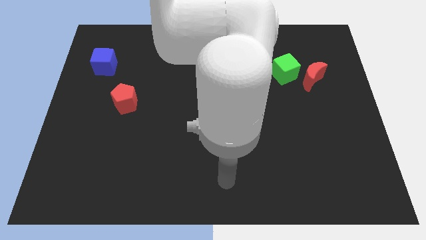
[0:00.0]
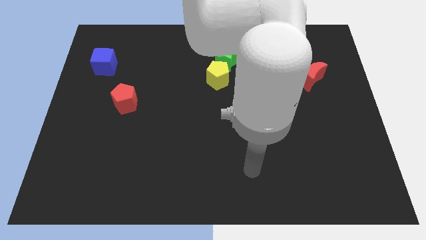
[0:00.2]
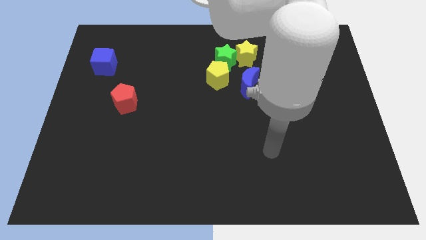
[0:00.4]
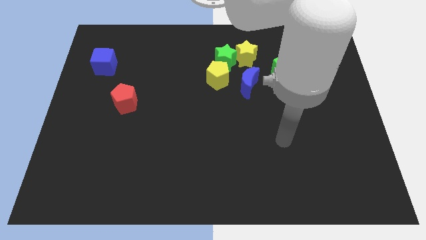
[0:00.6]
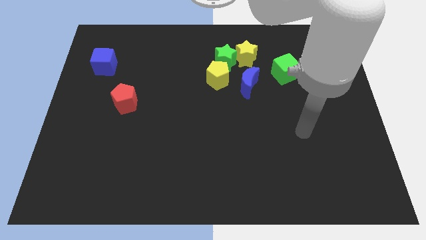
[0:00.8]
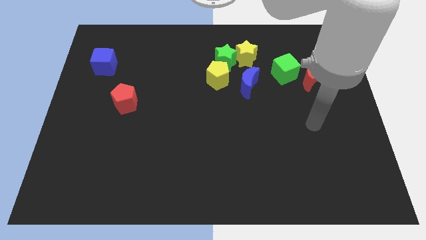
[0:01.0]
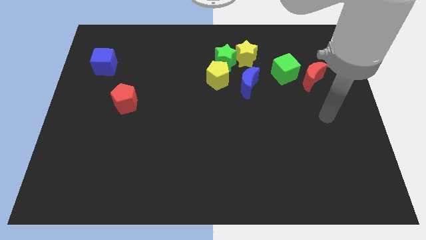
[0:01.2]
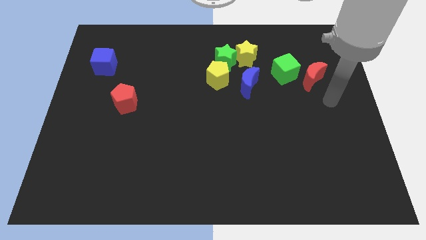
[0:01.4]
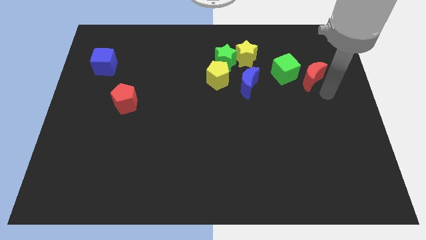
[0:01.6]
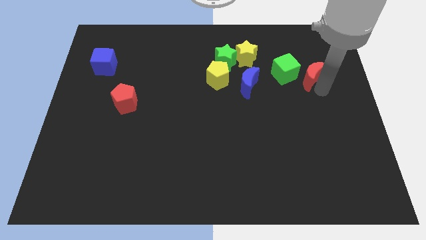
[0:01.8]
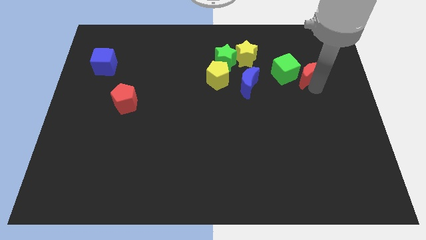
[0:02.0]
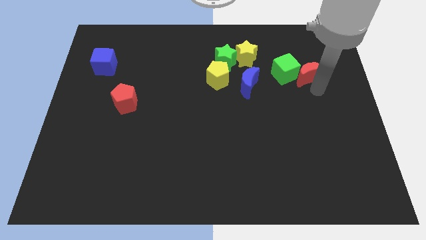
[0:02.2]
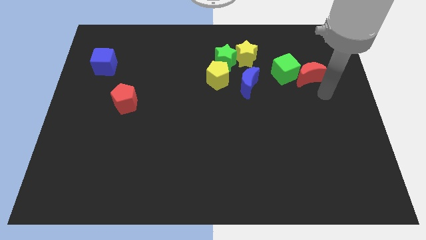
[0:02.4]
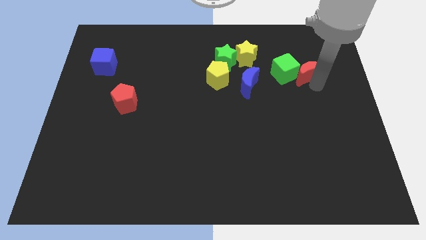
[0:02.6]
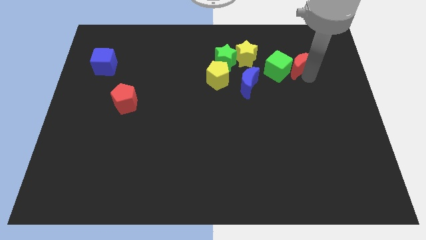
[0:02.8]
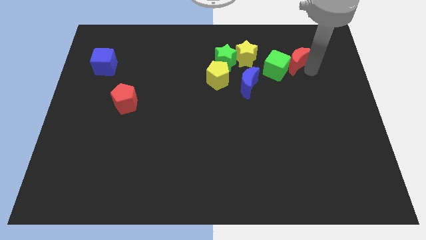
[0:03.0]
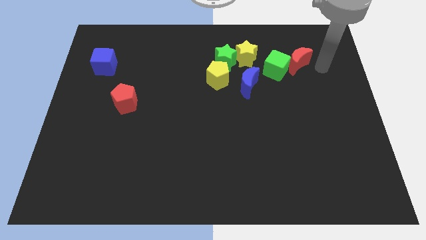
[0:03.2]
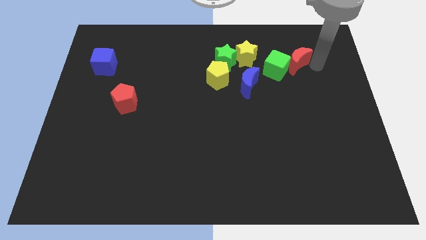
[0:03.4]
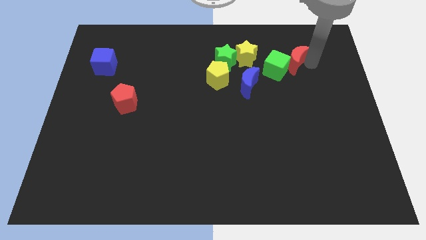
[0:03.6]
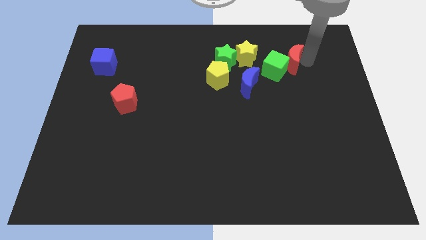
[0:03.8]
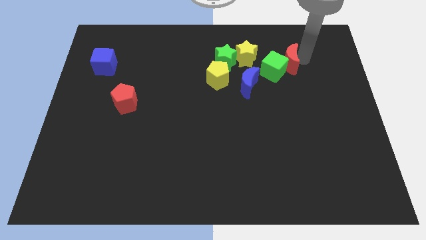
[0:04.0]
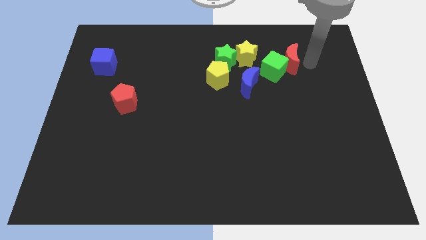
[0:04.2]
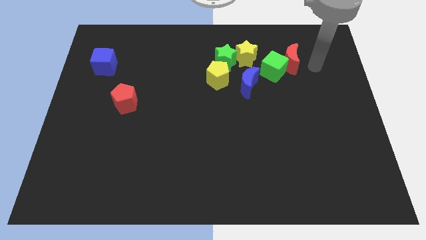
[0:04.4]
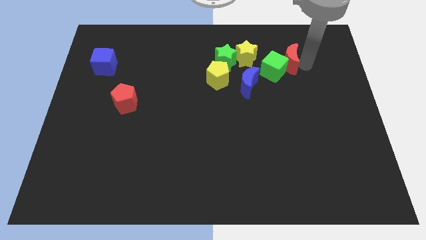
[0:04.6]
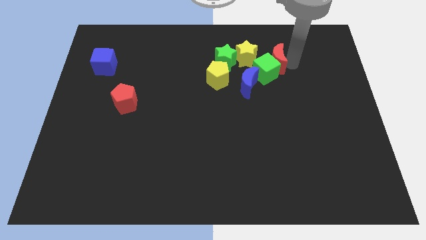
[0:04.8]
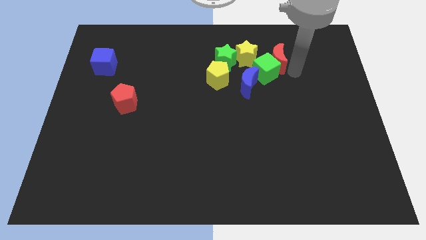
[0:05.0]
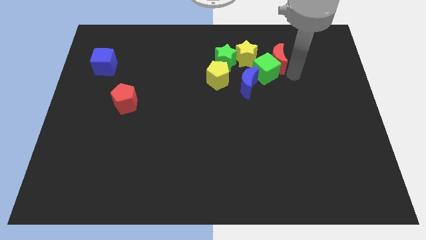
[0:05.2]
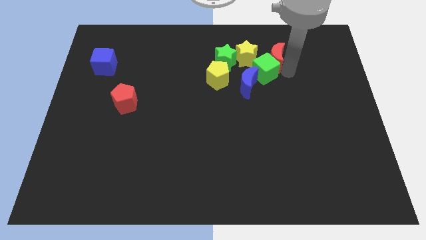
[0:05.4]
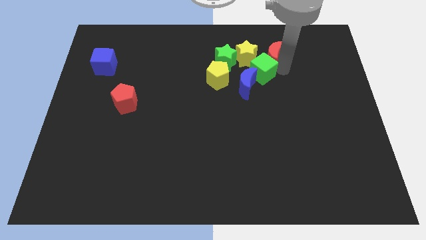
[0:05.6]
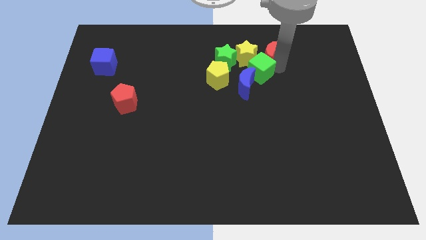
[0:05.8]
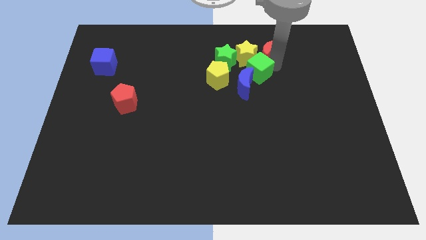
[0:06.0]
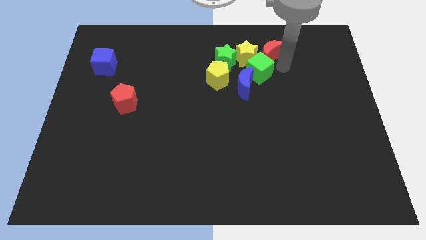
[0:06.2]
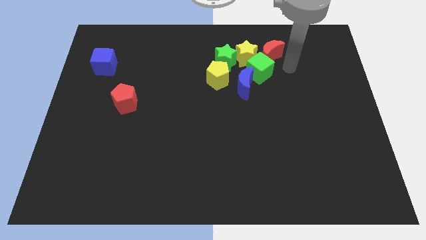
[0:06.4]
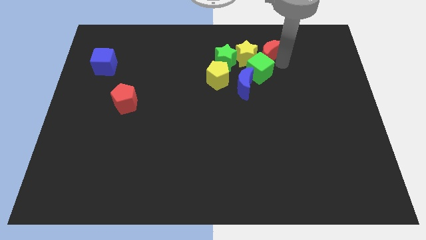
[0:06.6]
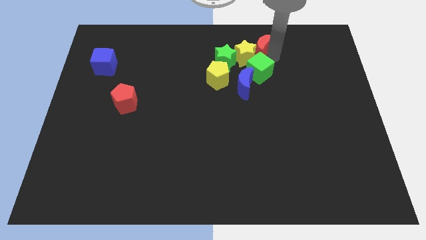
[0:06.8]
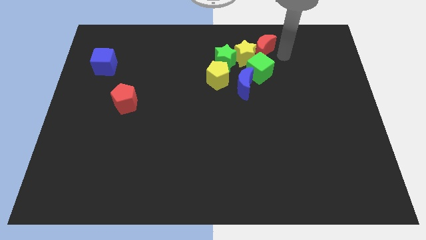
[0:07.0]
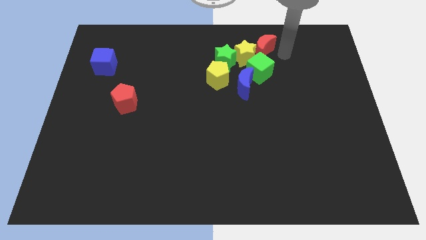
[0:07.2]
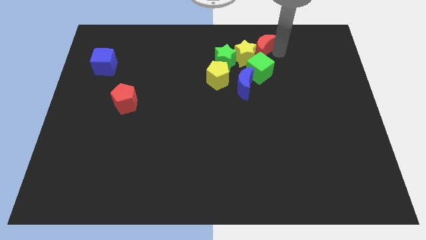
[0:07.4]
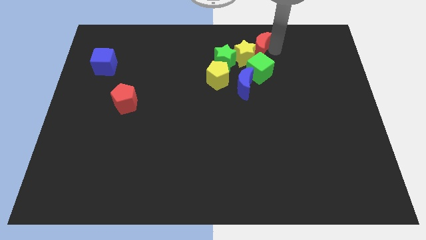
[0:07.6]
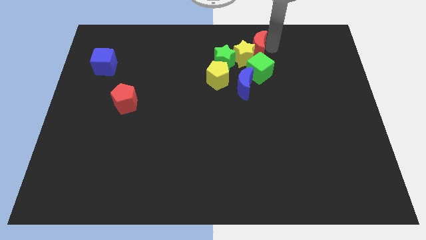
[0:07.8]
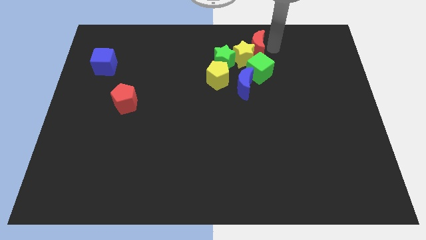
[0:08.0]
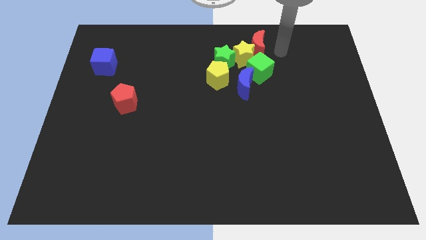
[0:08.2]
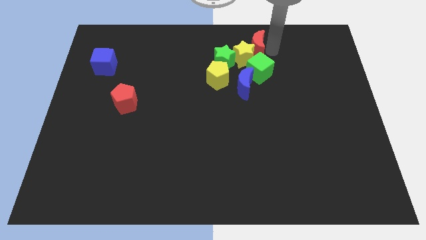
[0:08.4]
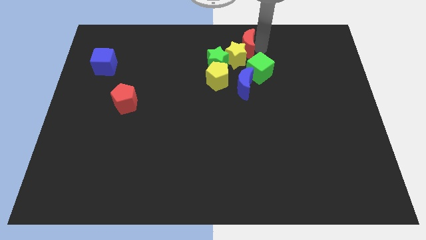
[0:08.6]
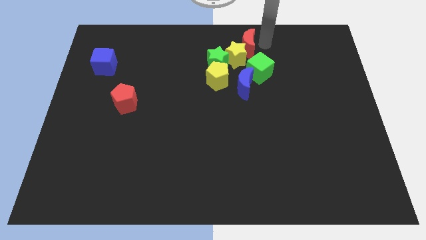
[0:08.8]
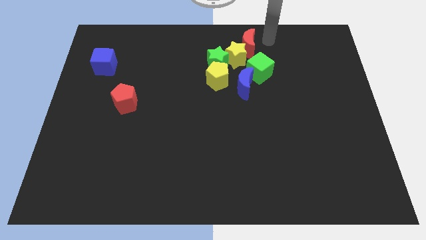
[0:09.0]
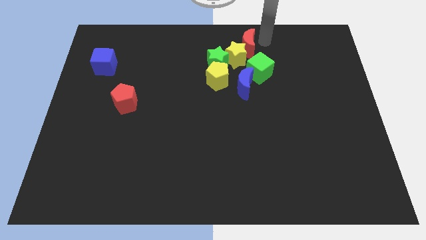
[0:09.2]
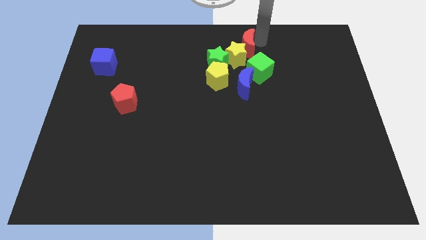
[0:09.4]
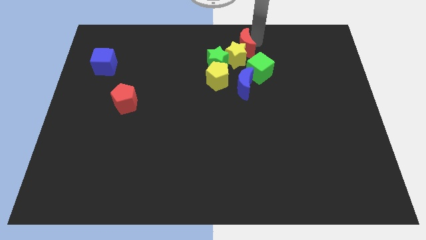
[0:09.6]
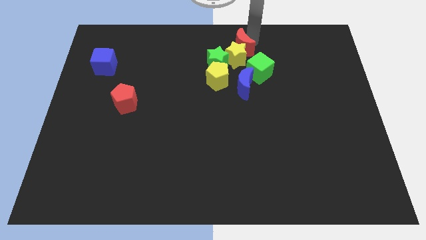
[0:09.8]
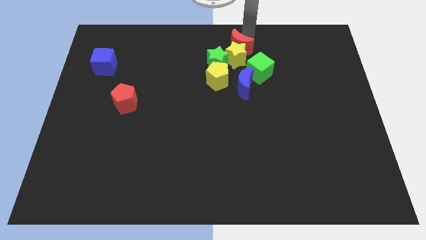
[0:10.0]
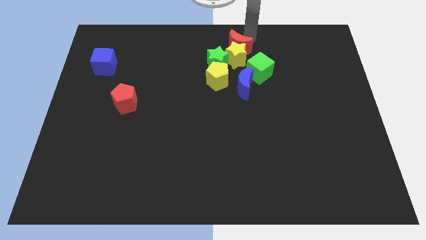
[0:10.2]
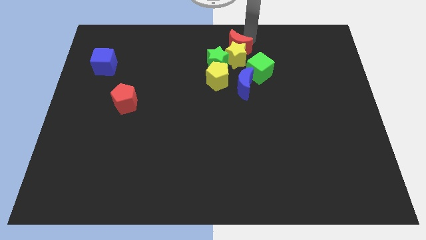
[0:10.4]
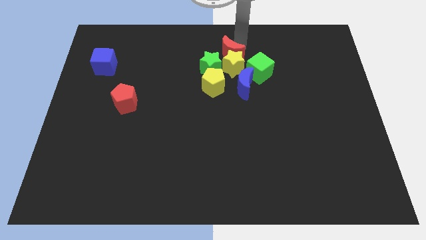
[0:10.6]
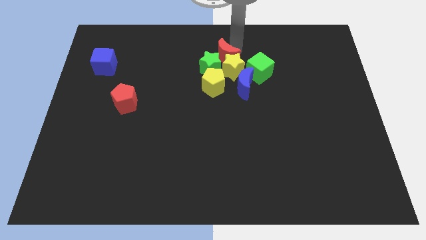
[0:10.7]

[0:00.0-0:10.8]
push the red moon close to the green star

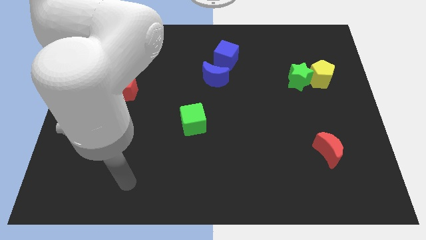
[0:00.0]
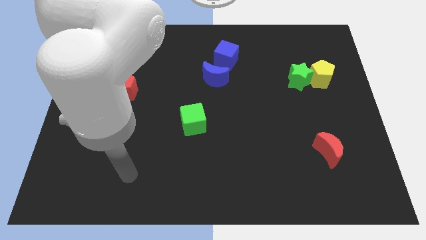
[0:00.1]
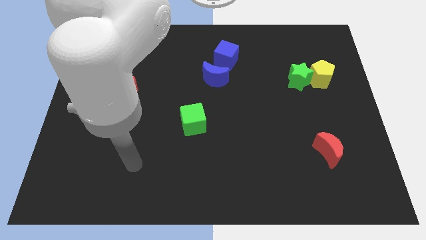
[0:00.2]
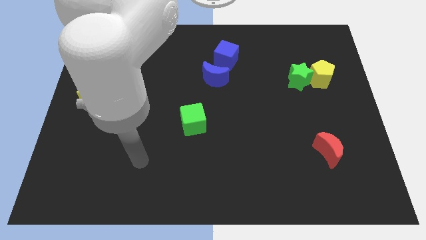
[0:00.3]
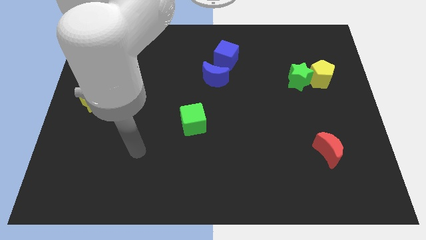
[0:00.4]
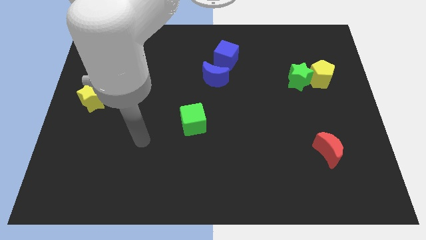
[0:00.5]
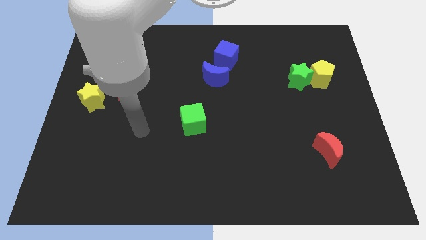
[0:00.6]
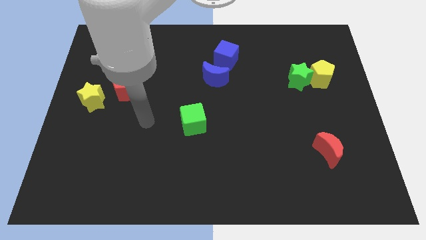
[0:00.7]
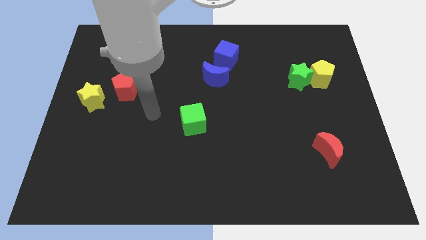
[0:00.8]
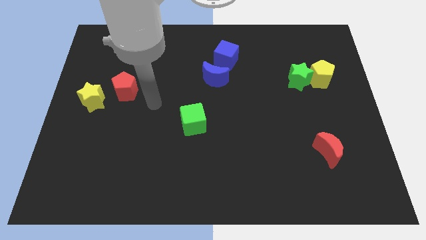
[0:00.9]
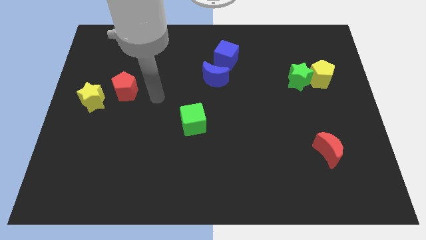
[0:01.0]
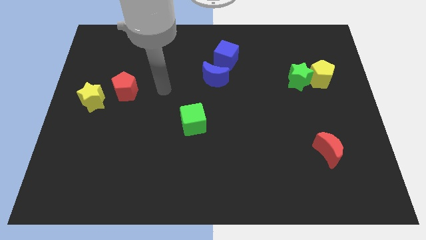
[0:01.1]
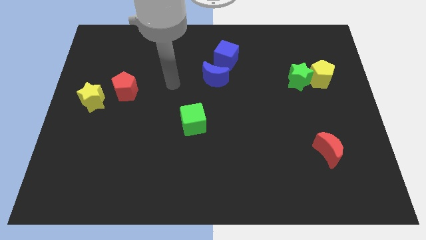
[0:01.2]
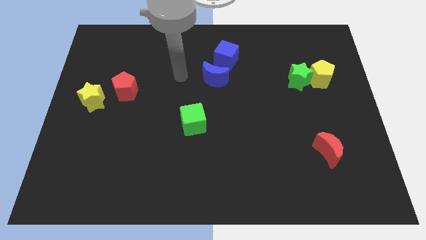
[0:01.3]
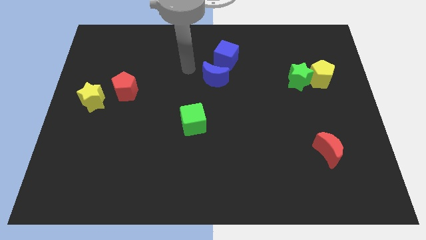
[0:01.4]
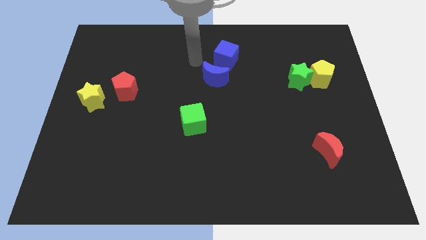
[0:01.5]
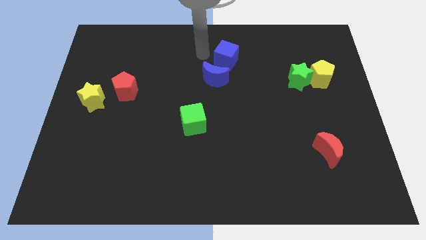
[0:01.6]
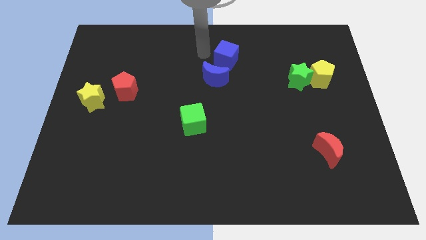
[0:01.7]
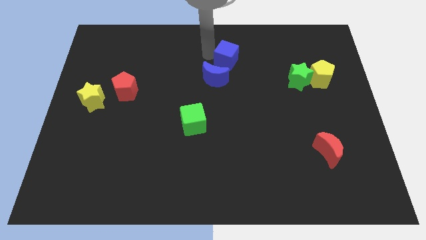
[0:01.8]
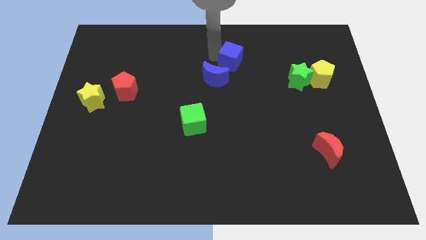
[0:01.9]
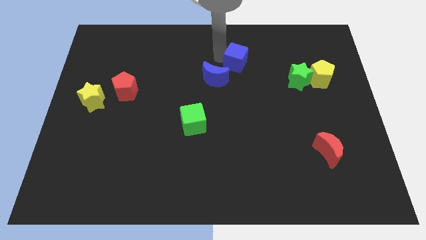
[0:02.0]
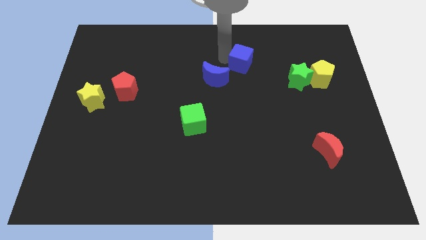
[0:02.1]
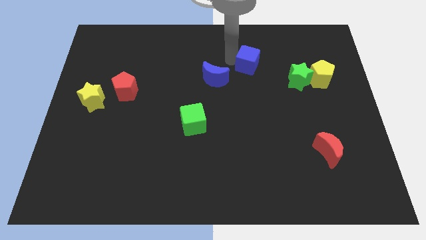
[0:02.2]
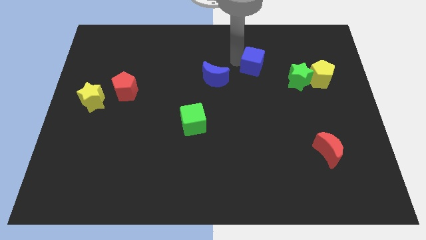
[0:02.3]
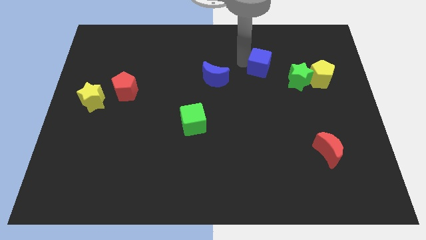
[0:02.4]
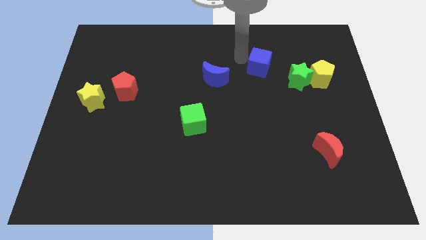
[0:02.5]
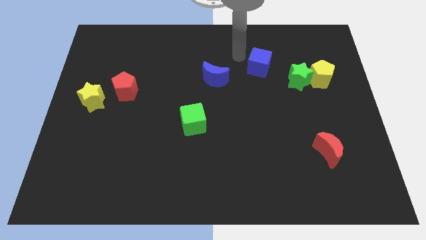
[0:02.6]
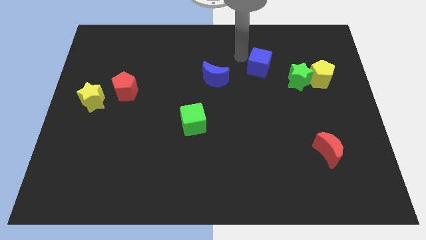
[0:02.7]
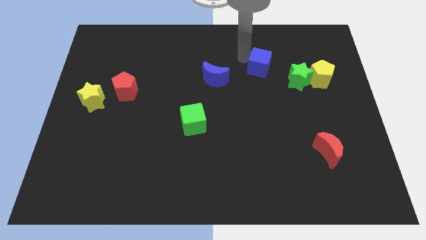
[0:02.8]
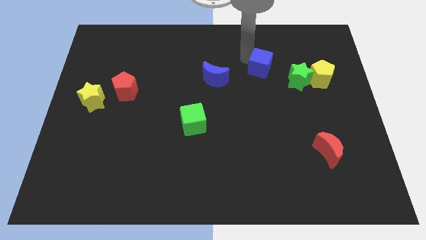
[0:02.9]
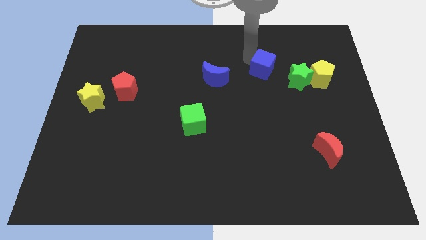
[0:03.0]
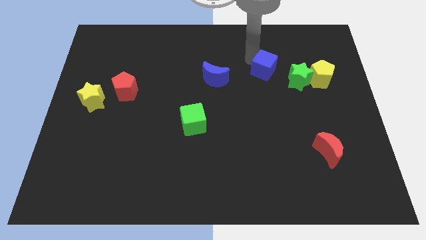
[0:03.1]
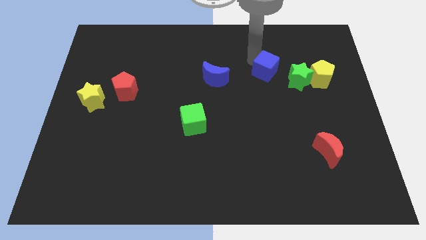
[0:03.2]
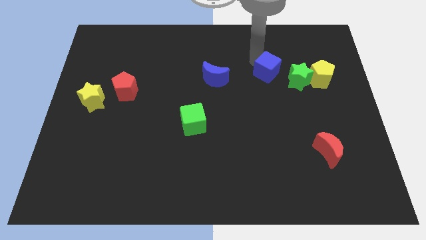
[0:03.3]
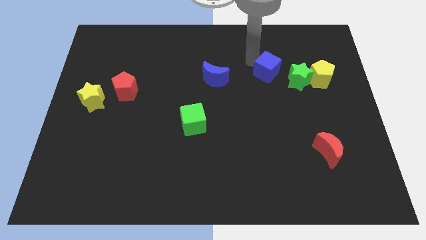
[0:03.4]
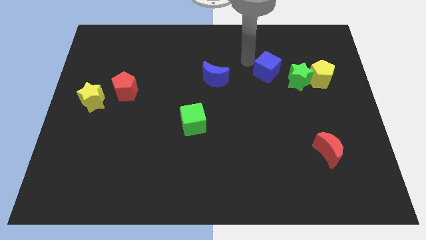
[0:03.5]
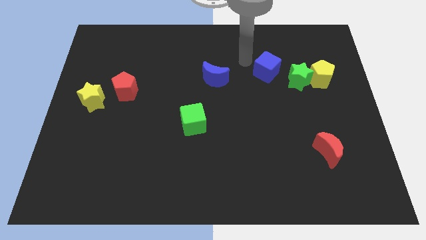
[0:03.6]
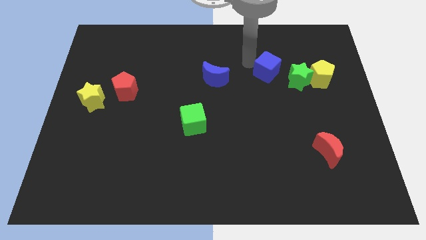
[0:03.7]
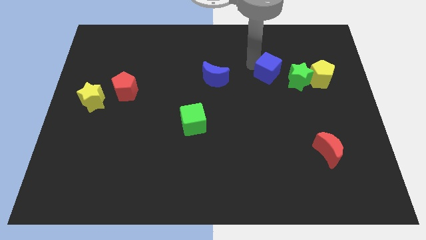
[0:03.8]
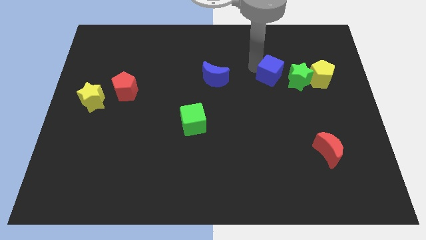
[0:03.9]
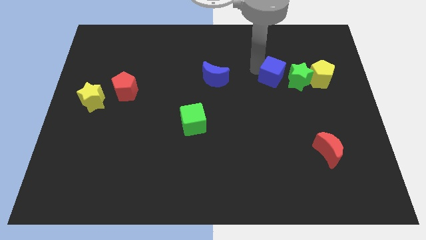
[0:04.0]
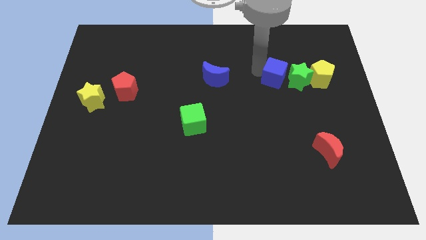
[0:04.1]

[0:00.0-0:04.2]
slide the blue cube next to the green star
